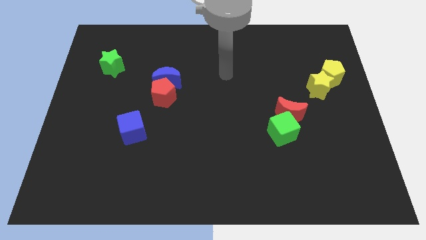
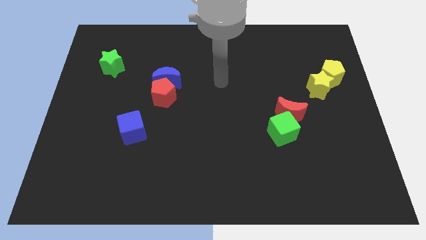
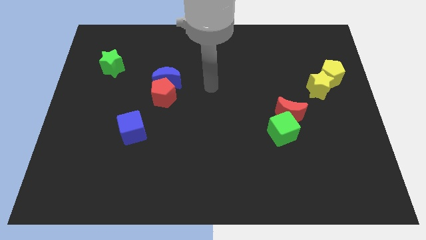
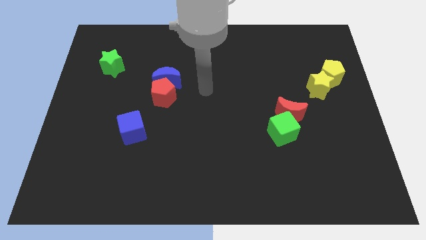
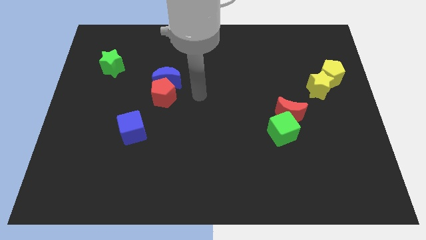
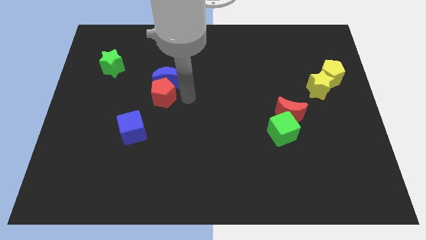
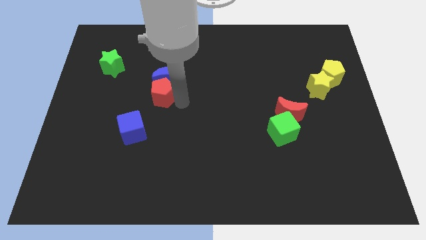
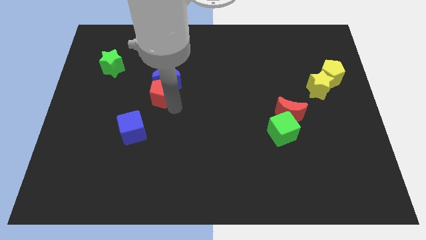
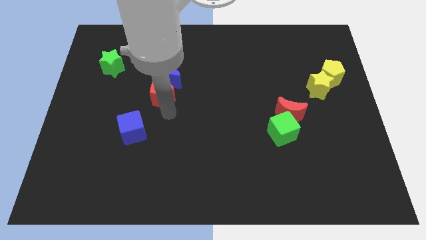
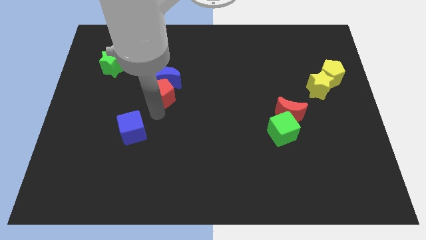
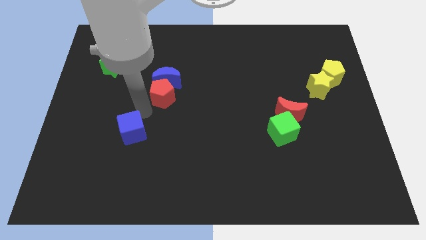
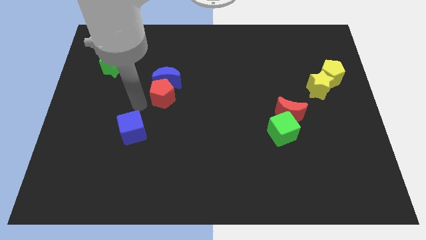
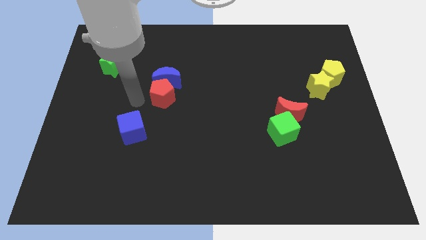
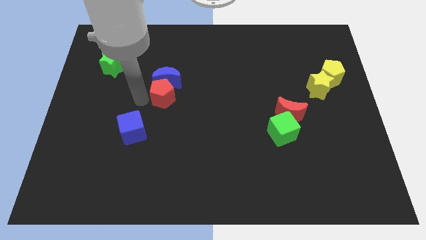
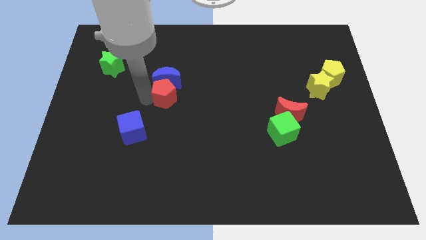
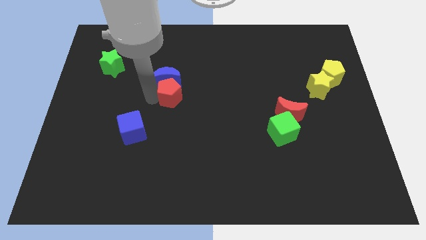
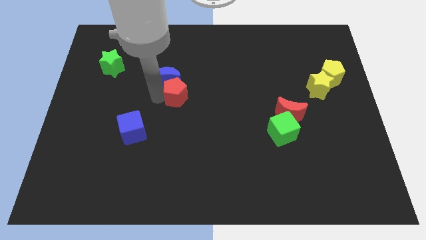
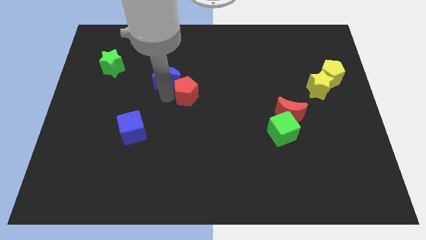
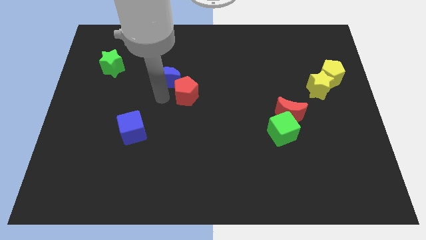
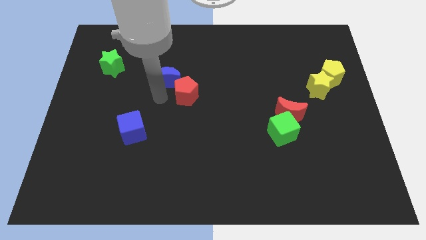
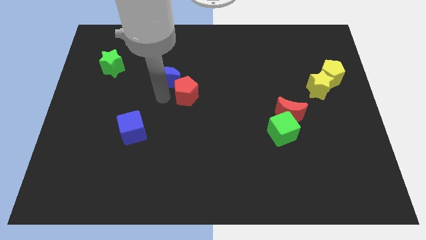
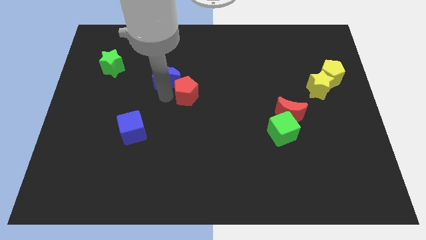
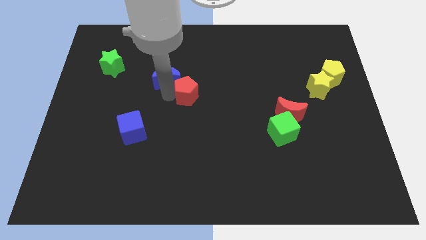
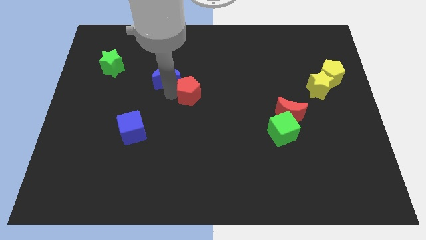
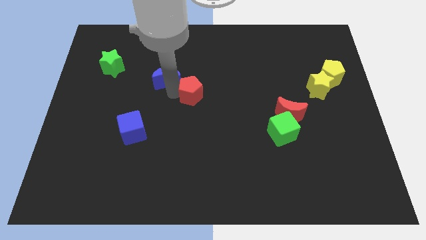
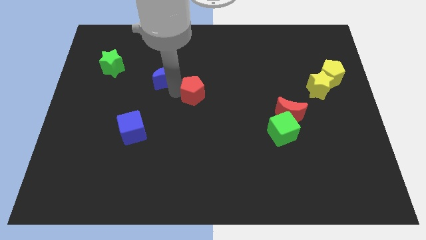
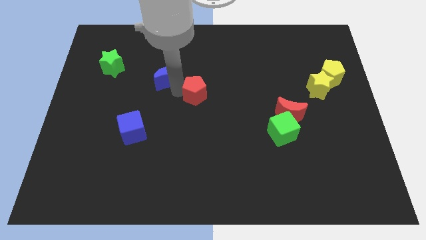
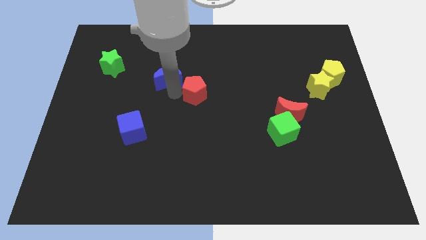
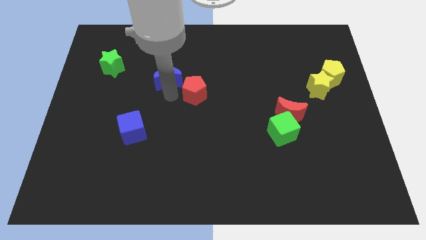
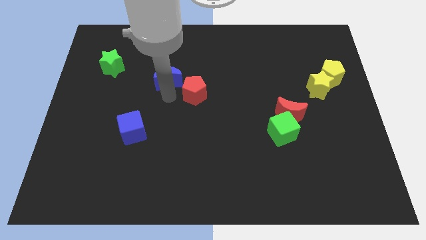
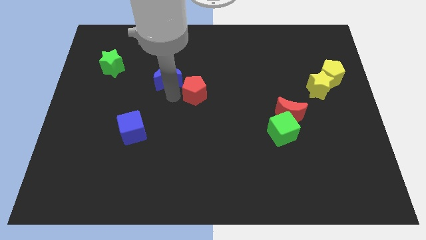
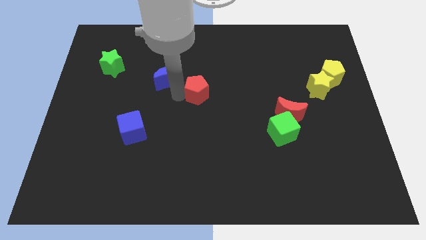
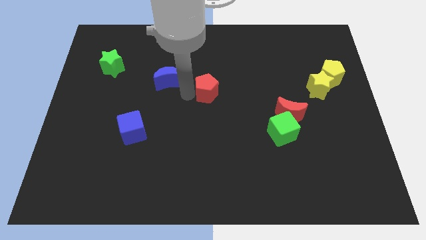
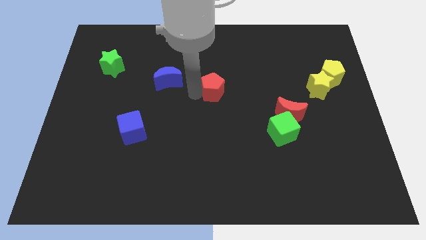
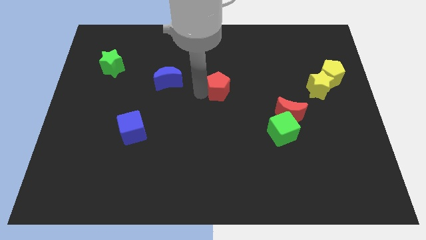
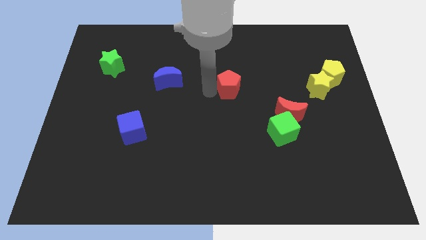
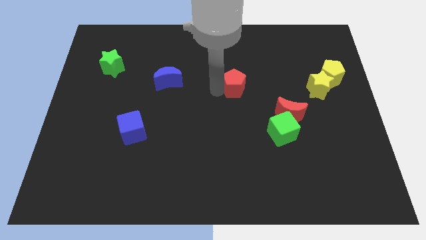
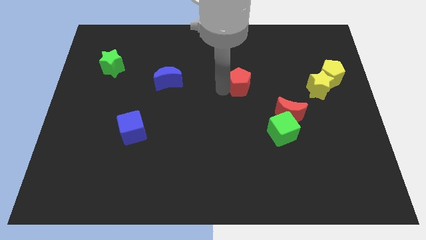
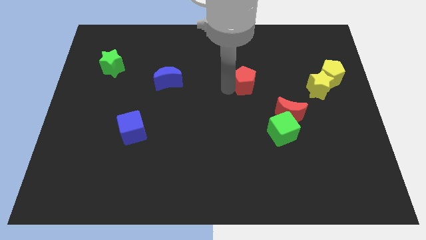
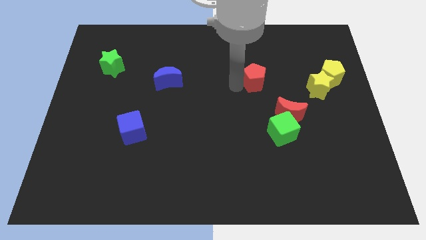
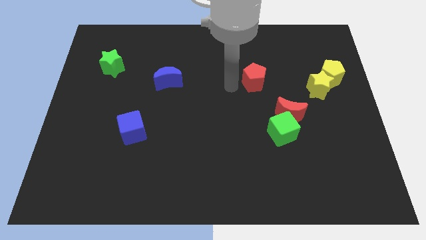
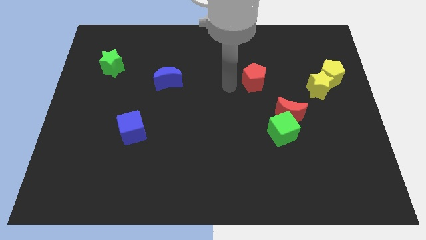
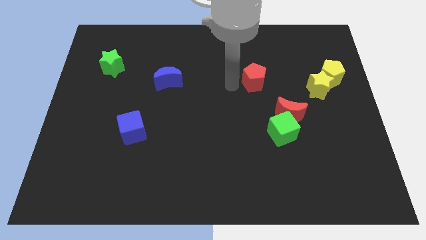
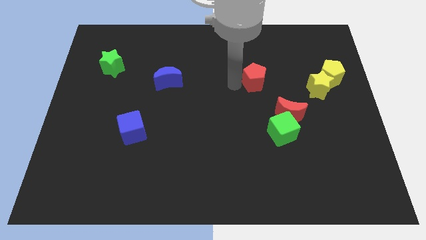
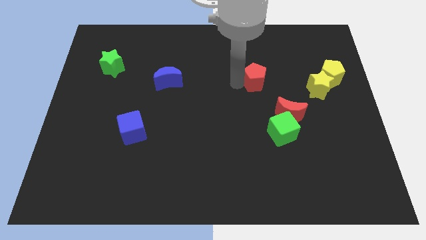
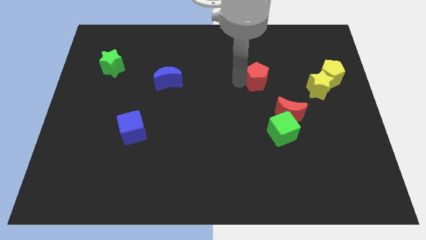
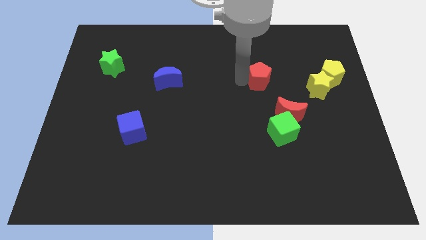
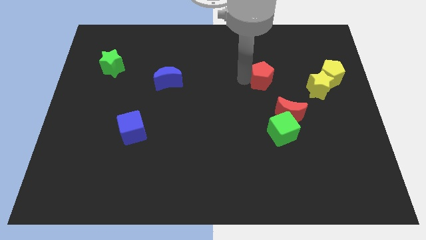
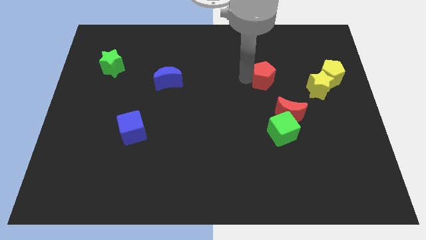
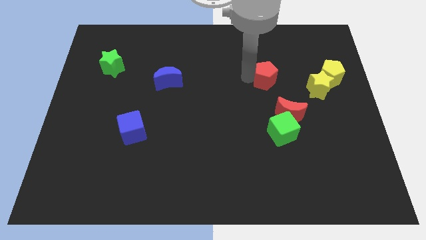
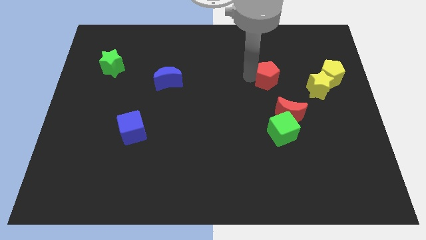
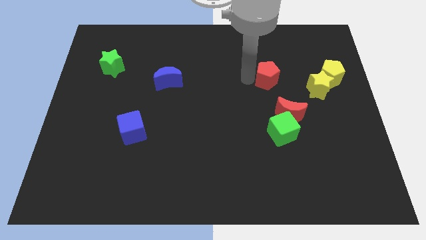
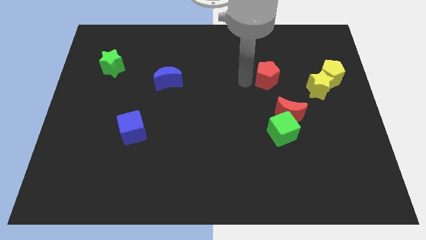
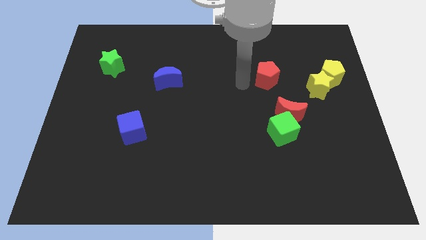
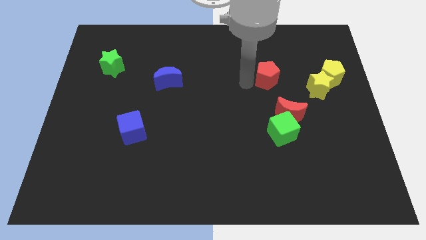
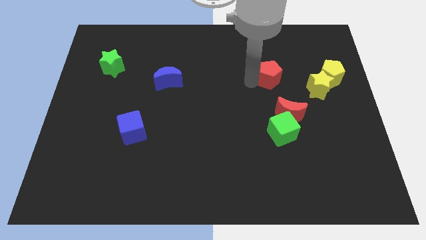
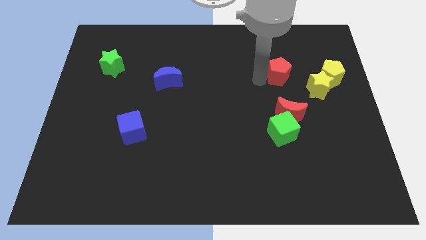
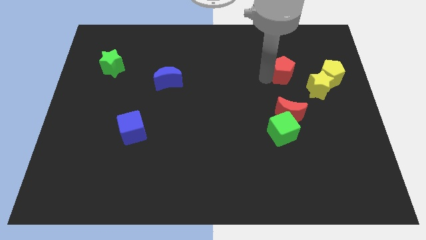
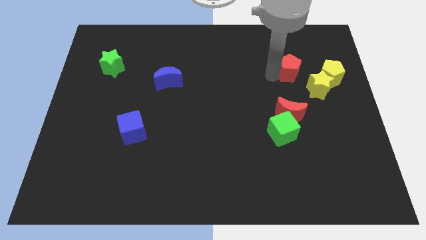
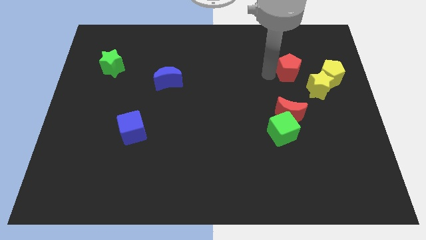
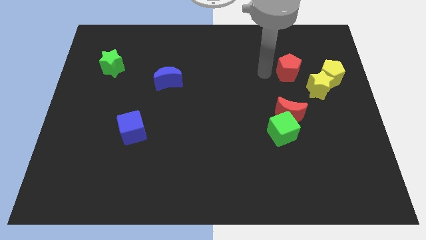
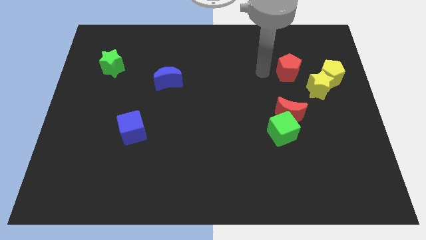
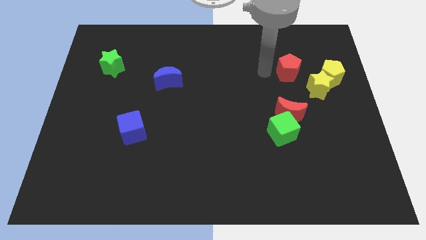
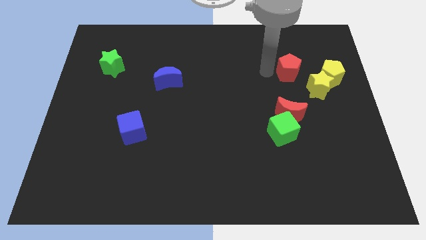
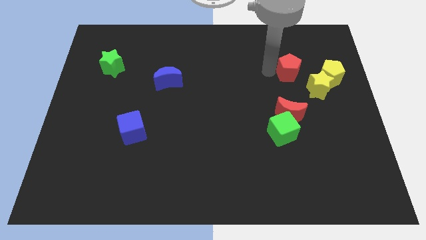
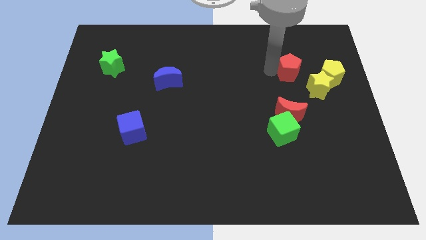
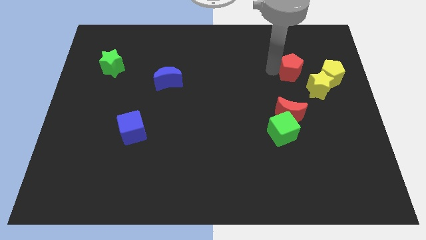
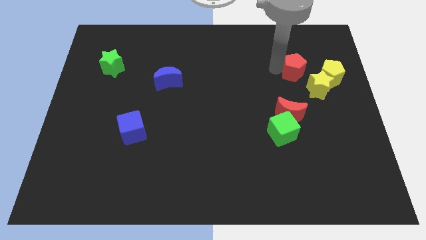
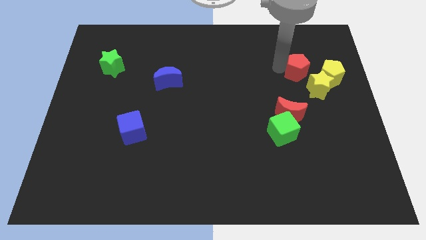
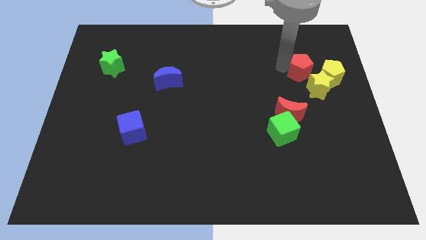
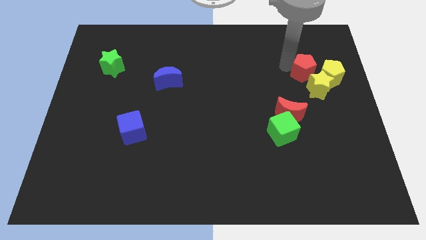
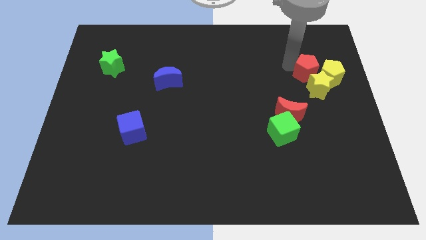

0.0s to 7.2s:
slide the red pentagon towards the yellow pentagon
